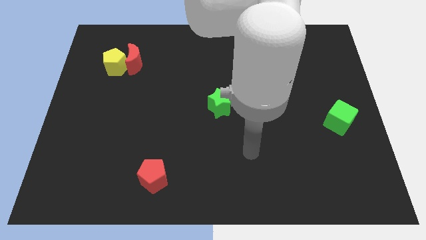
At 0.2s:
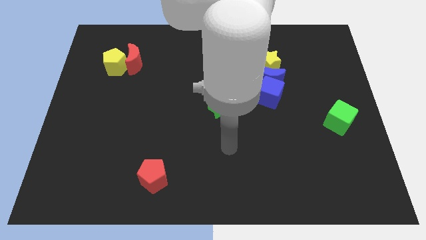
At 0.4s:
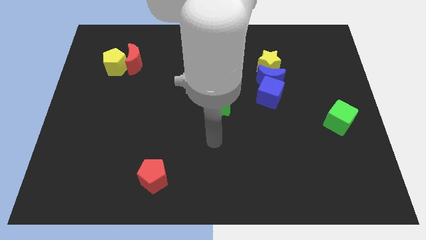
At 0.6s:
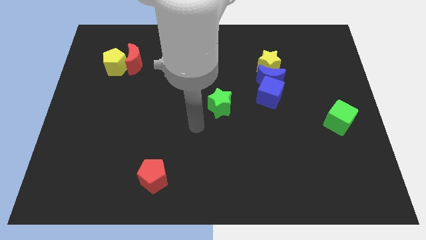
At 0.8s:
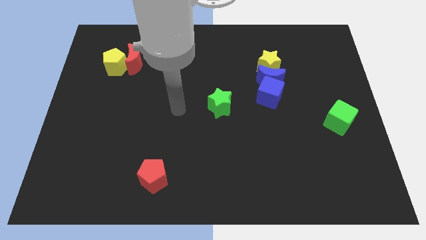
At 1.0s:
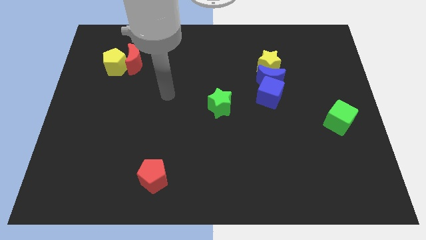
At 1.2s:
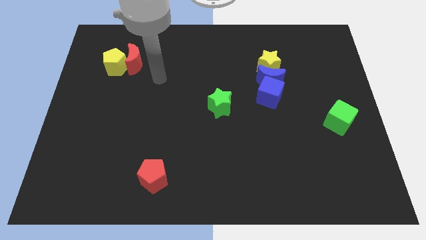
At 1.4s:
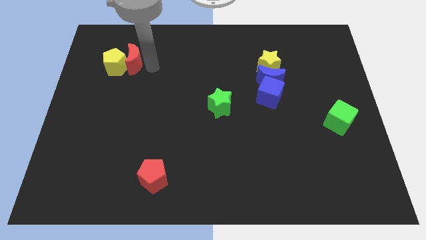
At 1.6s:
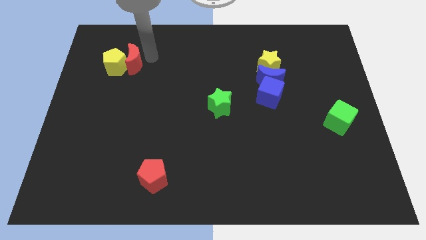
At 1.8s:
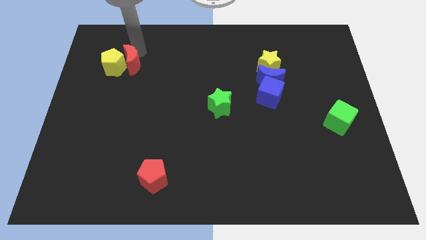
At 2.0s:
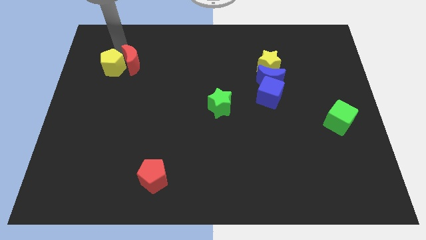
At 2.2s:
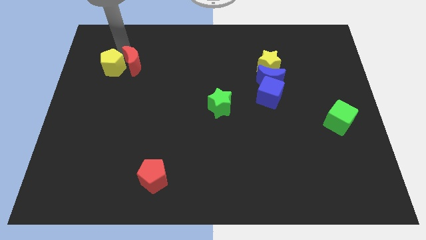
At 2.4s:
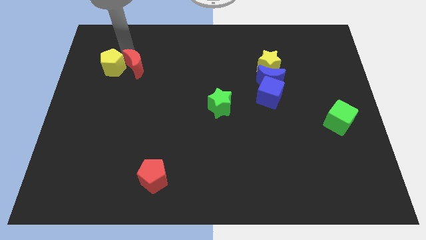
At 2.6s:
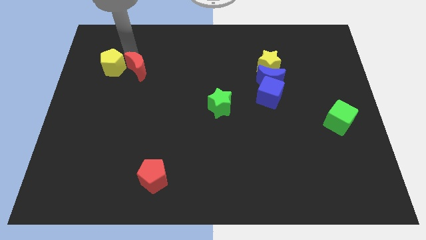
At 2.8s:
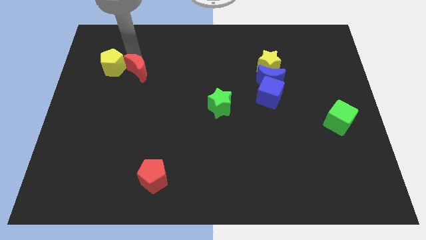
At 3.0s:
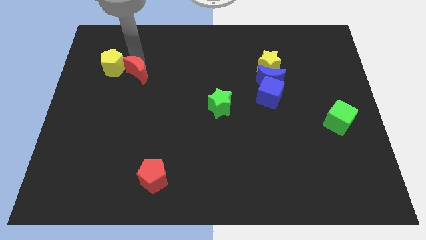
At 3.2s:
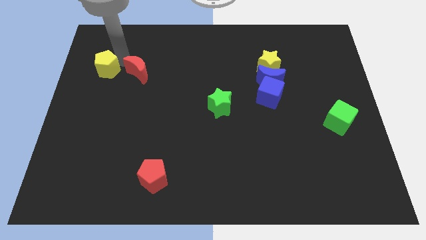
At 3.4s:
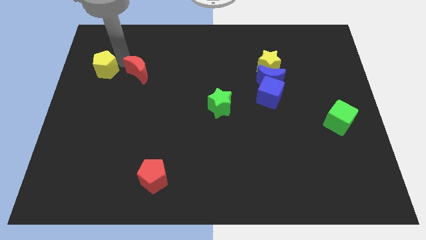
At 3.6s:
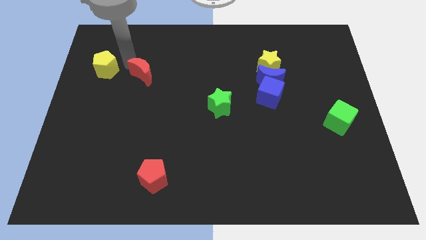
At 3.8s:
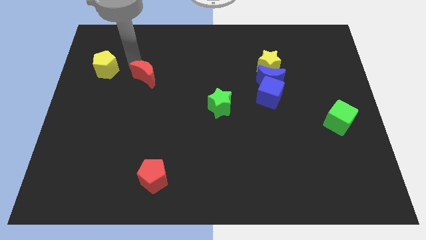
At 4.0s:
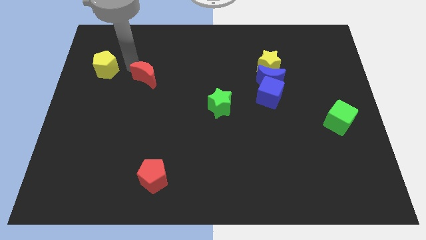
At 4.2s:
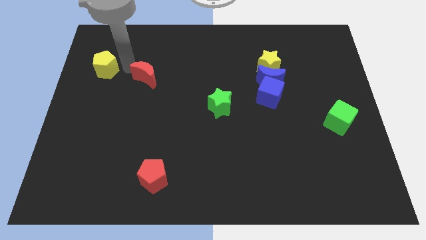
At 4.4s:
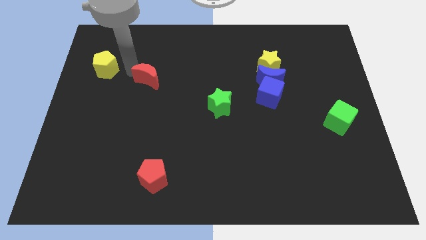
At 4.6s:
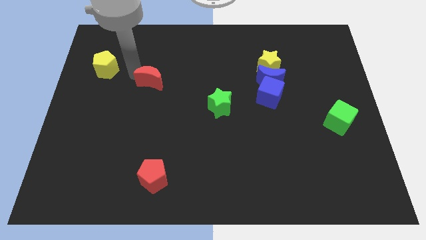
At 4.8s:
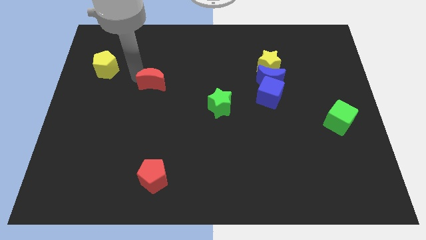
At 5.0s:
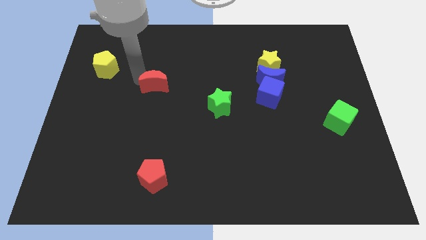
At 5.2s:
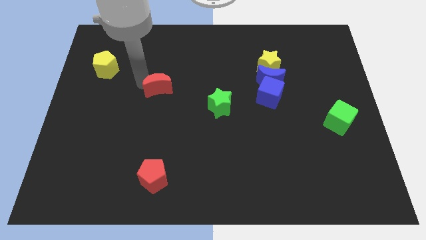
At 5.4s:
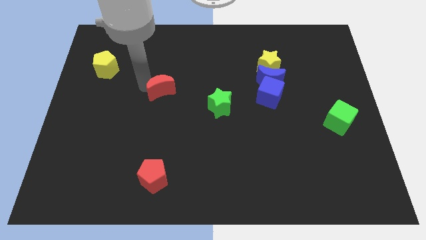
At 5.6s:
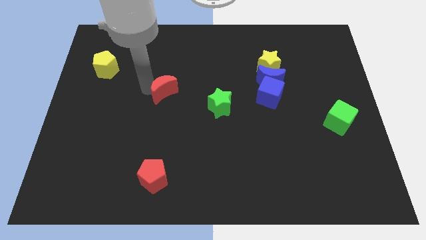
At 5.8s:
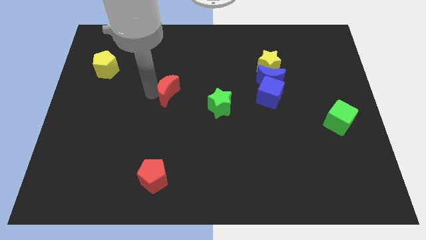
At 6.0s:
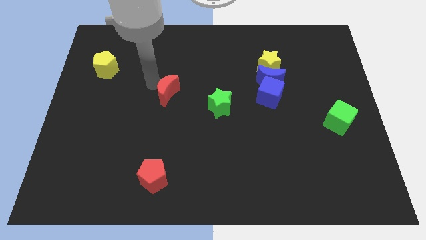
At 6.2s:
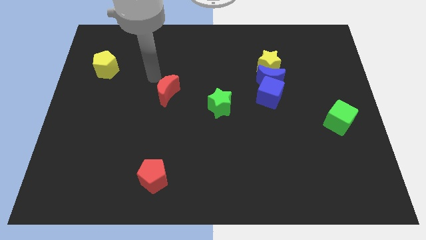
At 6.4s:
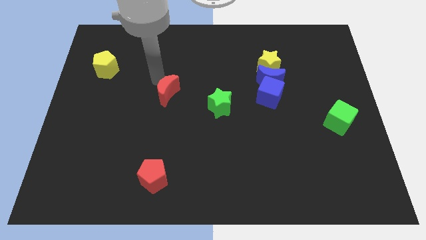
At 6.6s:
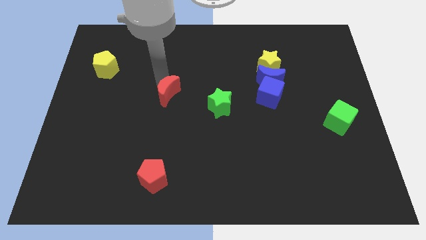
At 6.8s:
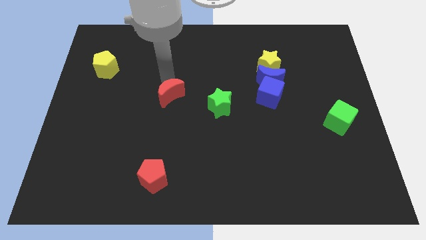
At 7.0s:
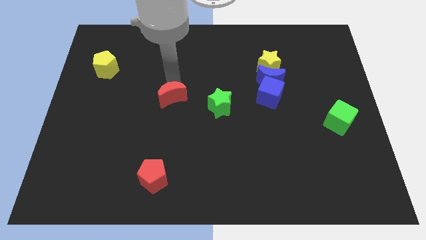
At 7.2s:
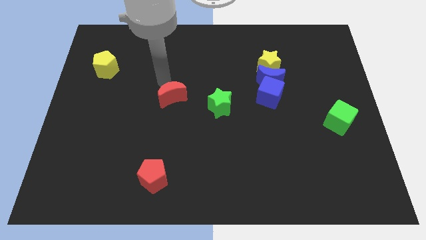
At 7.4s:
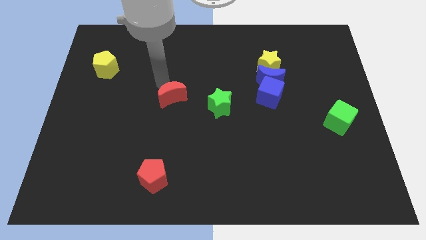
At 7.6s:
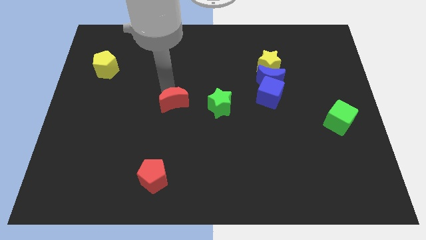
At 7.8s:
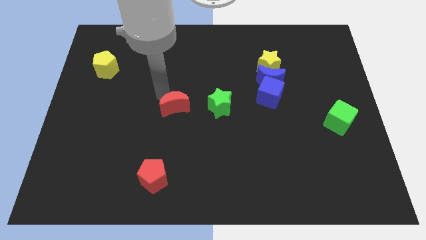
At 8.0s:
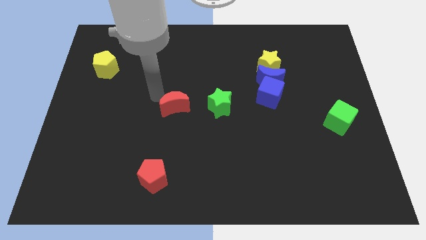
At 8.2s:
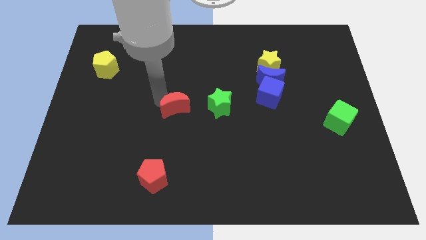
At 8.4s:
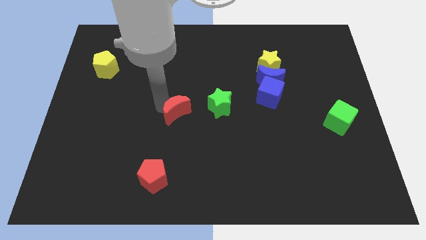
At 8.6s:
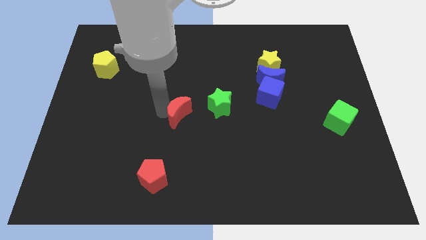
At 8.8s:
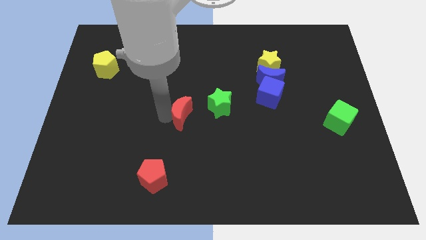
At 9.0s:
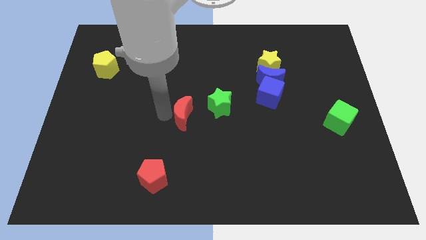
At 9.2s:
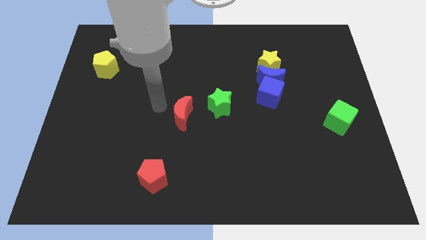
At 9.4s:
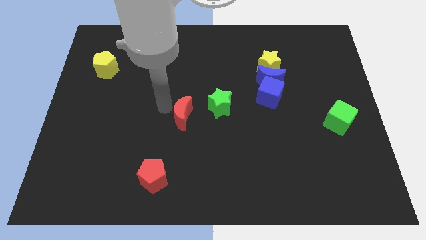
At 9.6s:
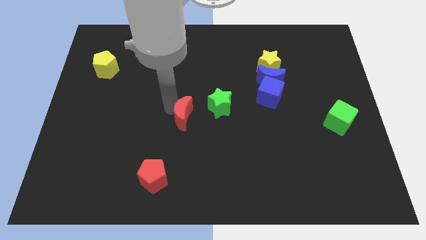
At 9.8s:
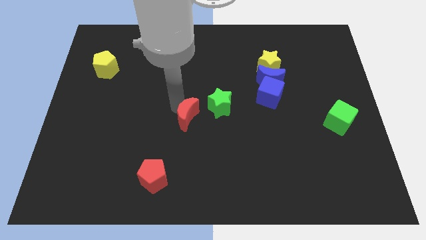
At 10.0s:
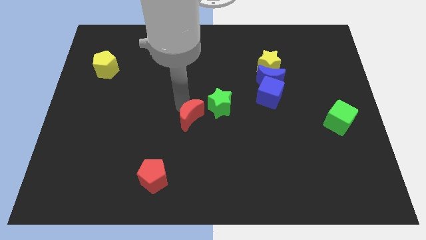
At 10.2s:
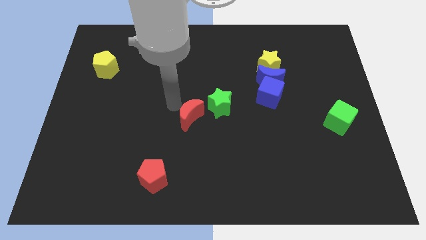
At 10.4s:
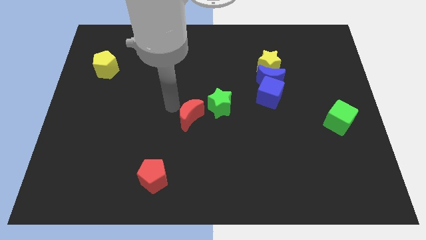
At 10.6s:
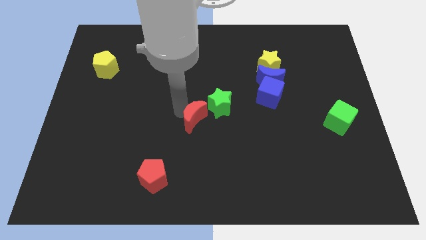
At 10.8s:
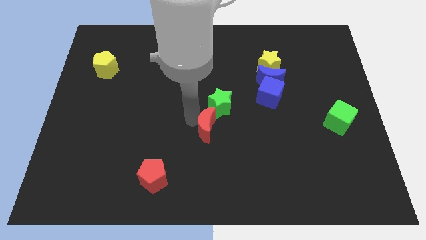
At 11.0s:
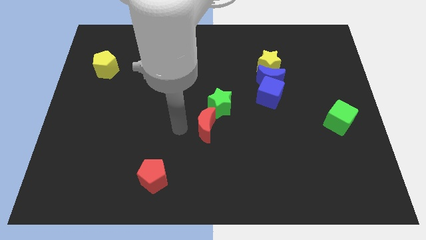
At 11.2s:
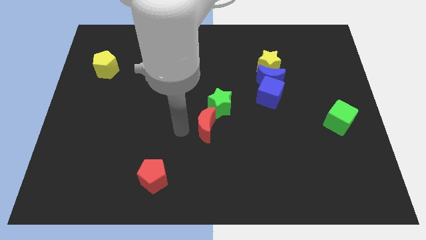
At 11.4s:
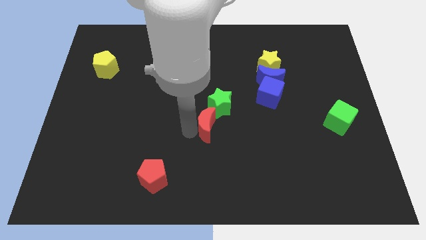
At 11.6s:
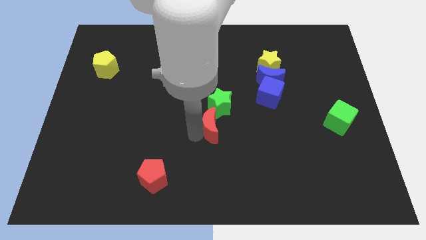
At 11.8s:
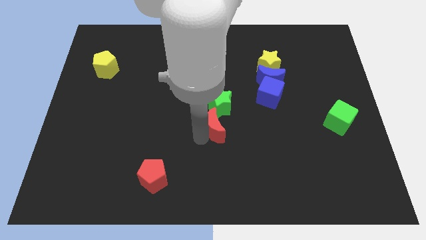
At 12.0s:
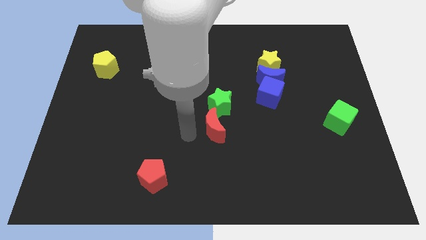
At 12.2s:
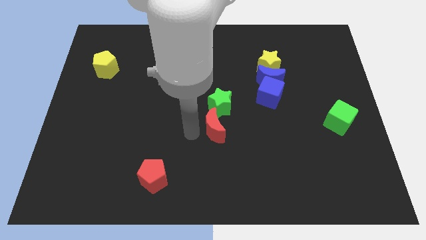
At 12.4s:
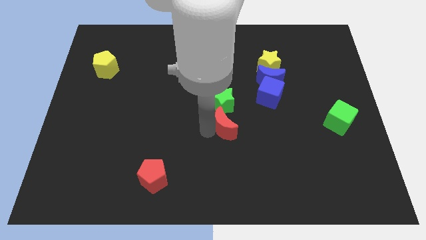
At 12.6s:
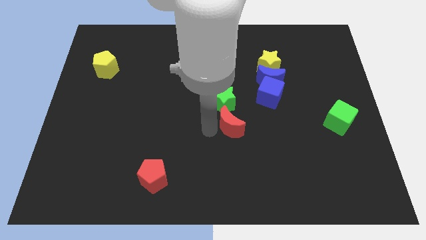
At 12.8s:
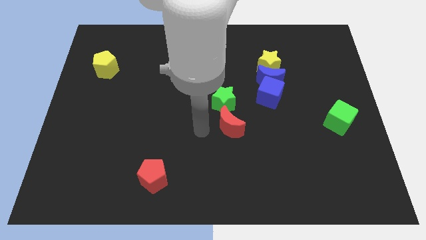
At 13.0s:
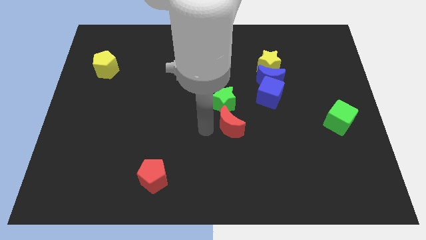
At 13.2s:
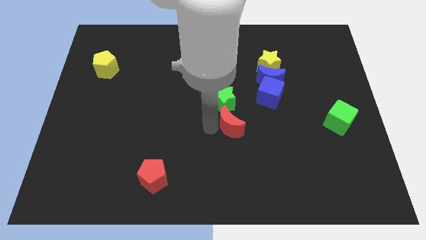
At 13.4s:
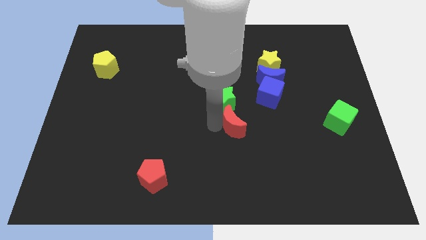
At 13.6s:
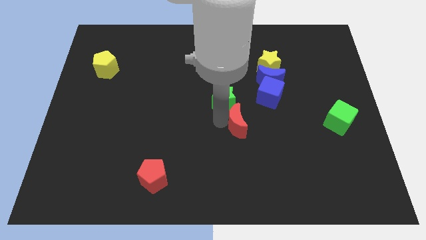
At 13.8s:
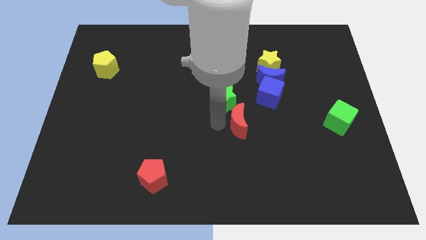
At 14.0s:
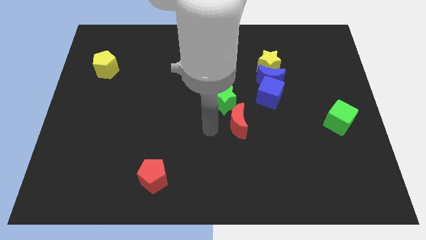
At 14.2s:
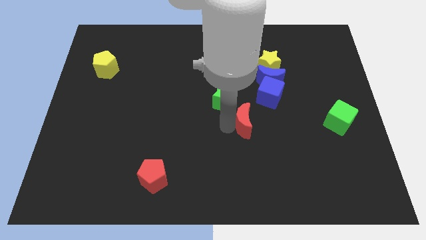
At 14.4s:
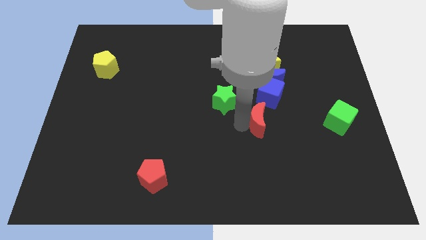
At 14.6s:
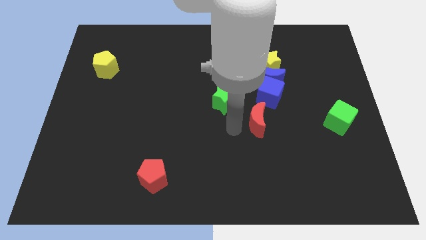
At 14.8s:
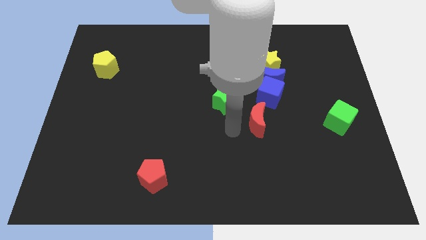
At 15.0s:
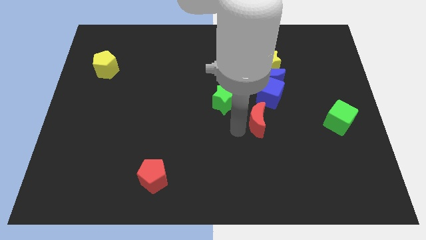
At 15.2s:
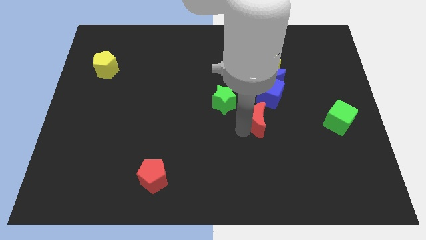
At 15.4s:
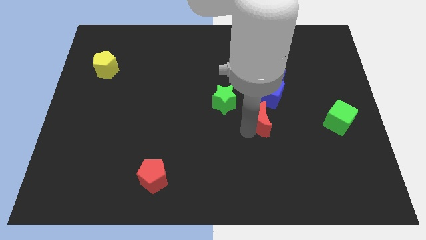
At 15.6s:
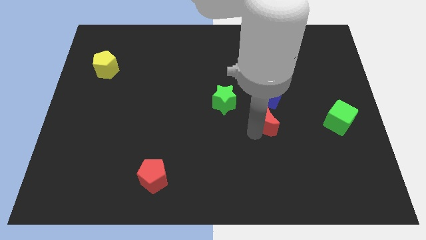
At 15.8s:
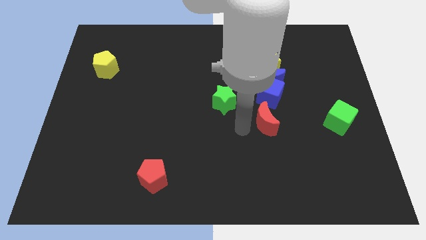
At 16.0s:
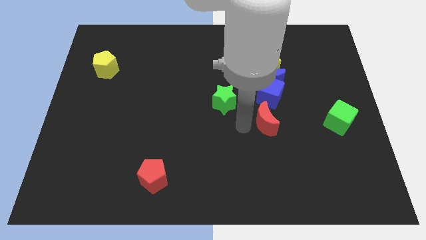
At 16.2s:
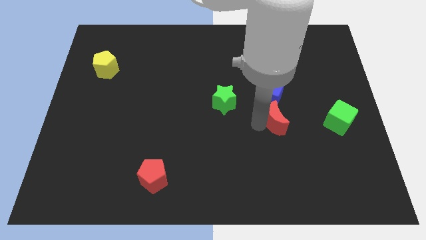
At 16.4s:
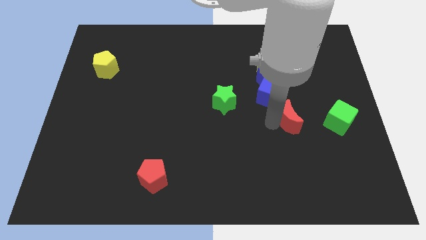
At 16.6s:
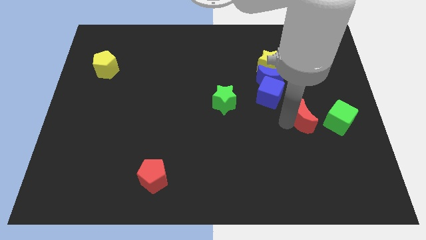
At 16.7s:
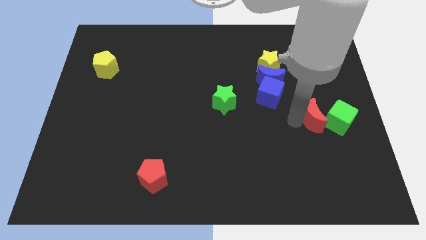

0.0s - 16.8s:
push the red moon to the green cube
